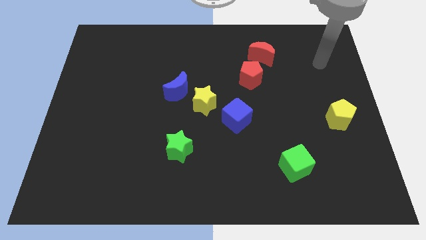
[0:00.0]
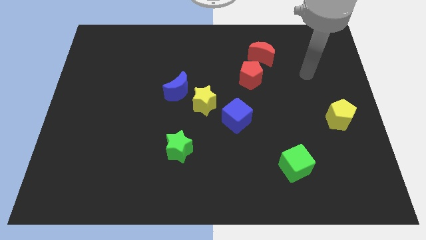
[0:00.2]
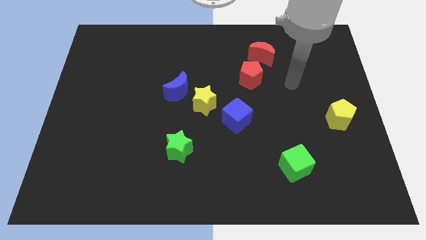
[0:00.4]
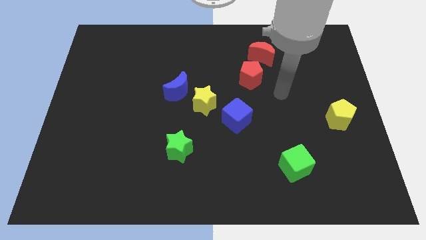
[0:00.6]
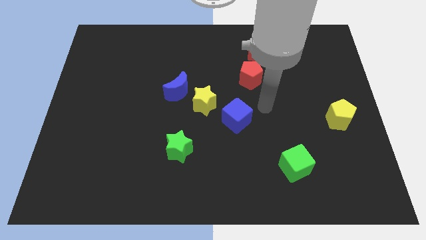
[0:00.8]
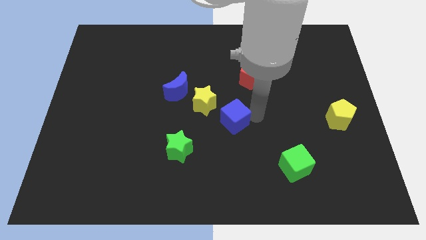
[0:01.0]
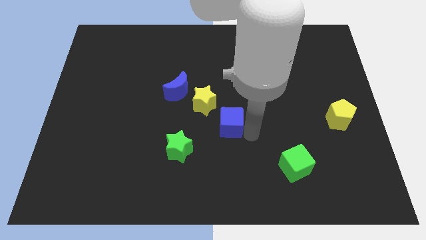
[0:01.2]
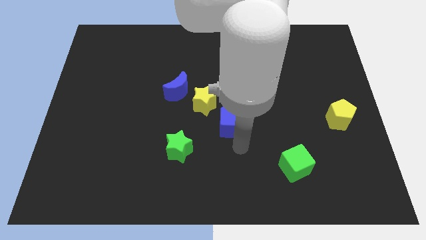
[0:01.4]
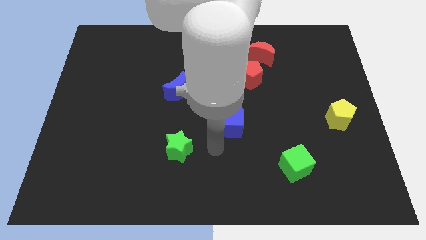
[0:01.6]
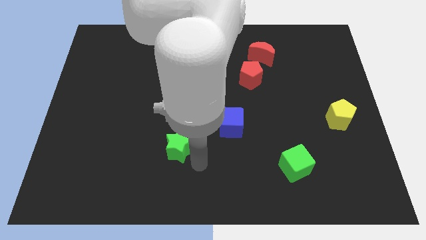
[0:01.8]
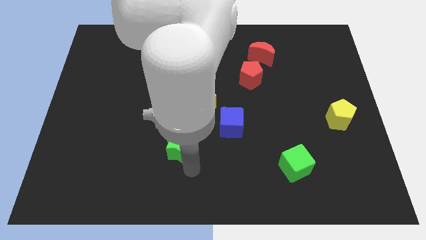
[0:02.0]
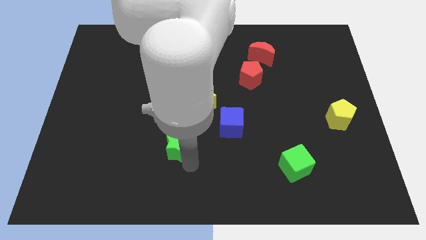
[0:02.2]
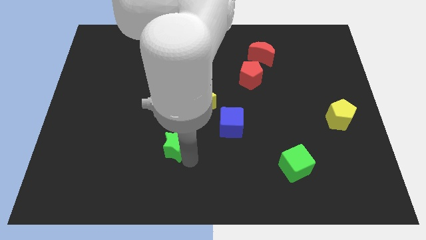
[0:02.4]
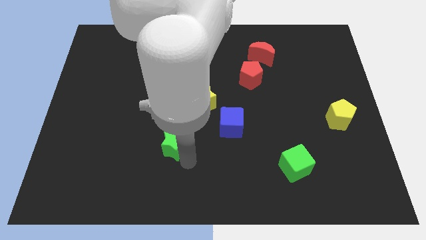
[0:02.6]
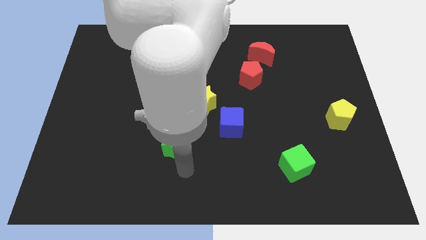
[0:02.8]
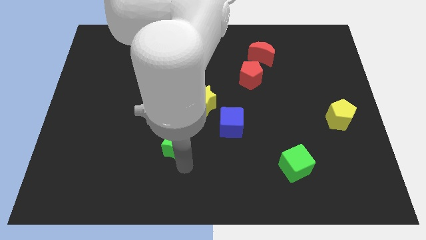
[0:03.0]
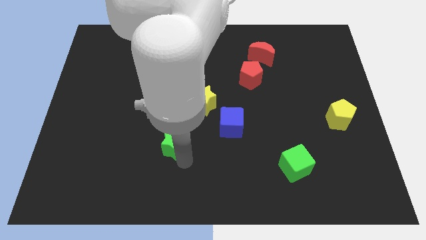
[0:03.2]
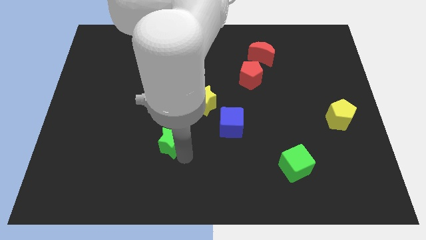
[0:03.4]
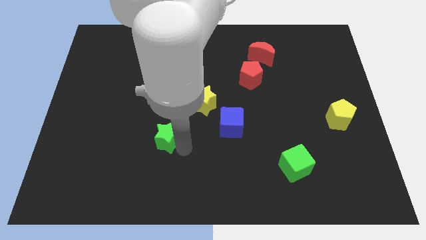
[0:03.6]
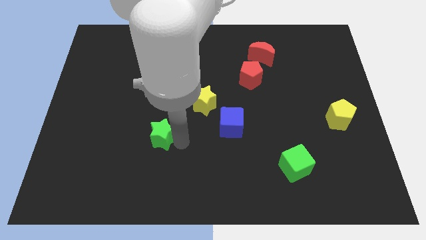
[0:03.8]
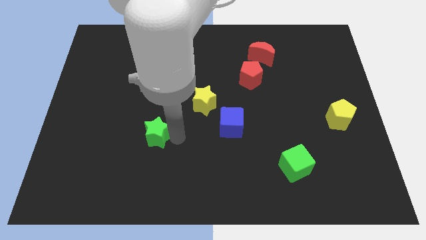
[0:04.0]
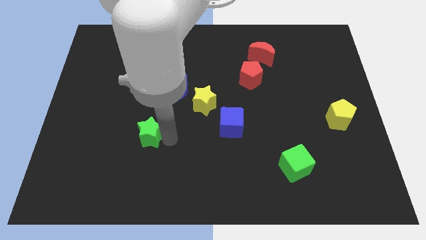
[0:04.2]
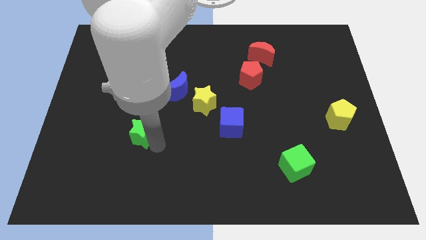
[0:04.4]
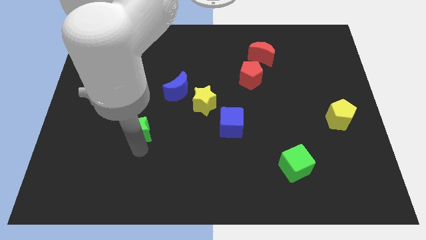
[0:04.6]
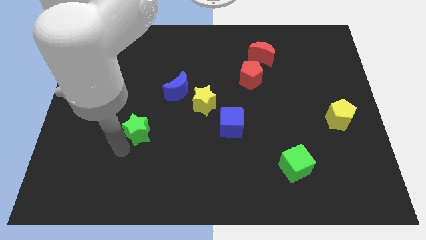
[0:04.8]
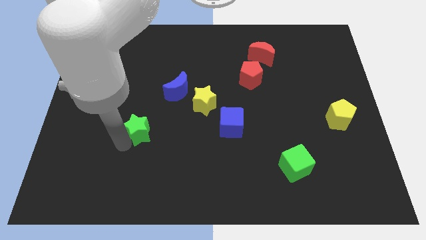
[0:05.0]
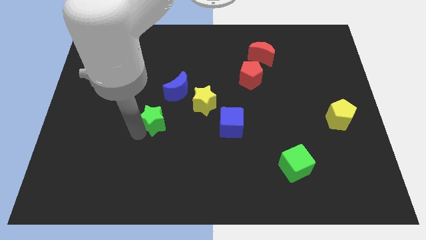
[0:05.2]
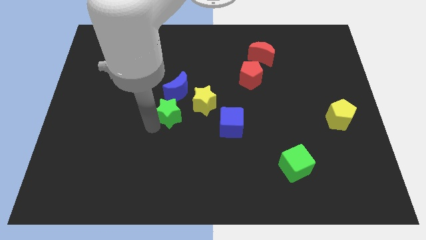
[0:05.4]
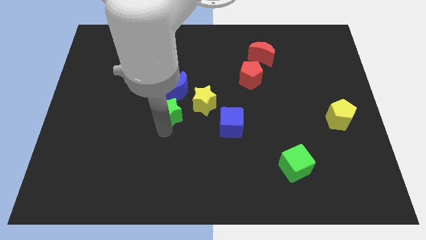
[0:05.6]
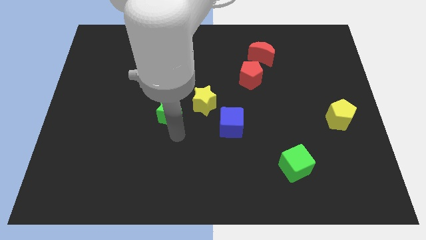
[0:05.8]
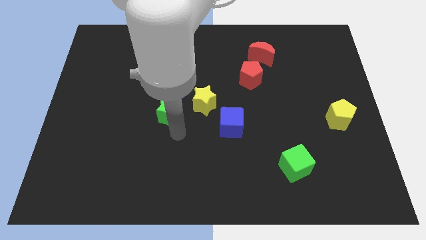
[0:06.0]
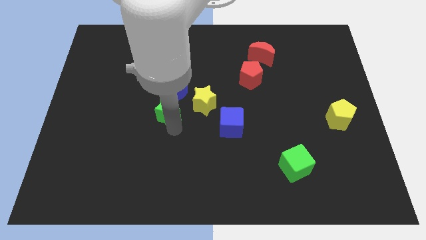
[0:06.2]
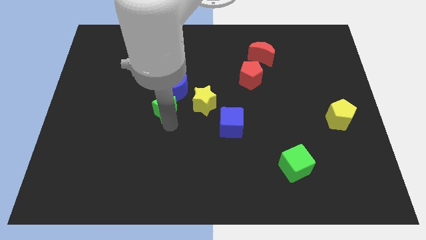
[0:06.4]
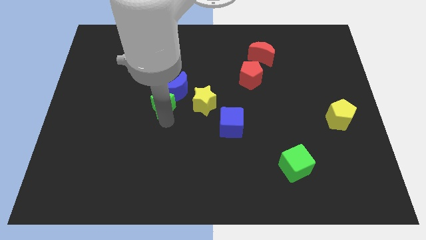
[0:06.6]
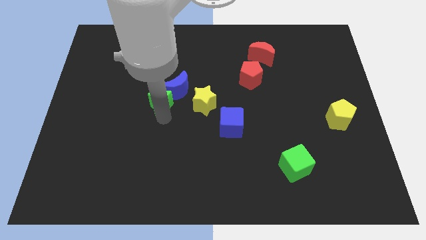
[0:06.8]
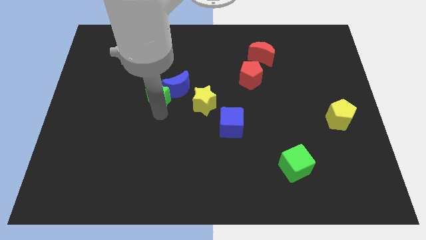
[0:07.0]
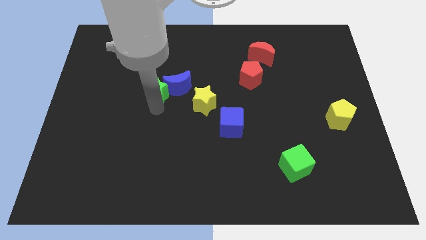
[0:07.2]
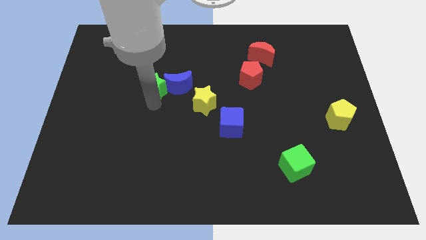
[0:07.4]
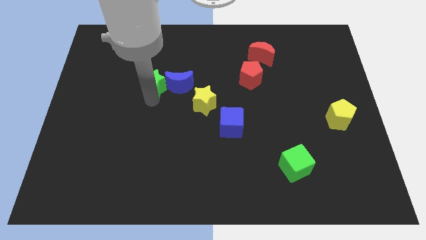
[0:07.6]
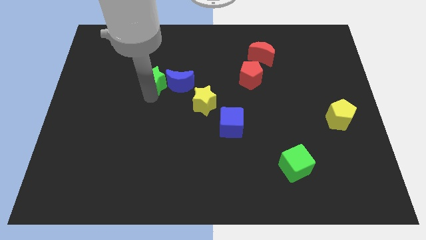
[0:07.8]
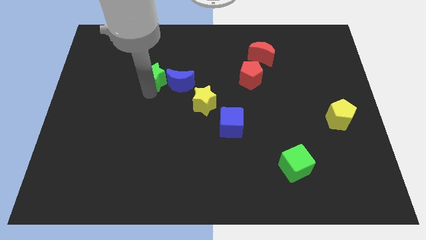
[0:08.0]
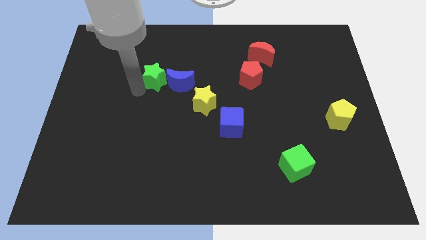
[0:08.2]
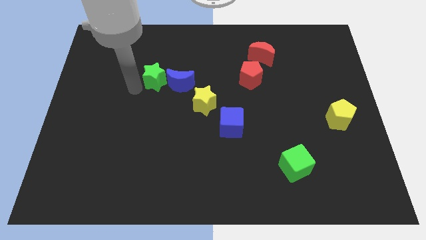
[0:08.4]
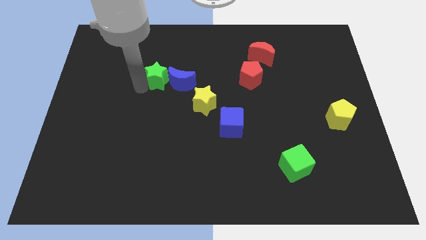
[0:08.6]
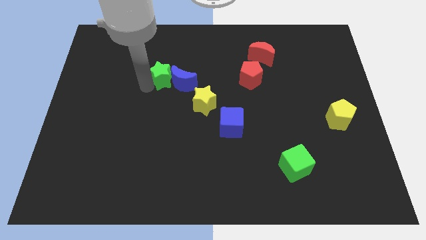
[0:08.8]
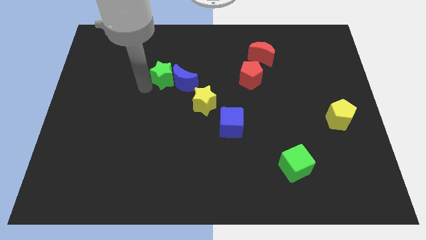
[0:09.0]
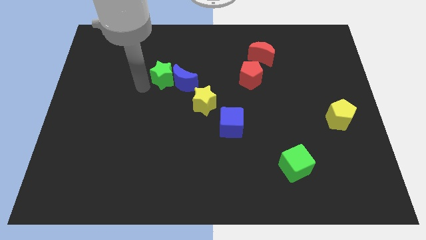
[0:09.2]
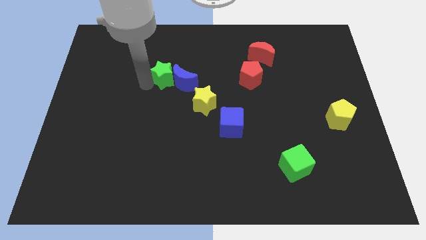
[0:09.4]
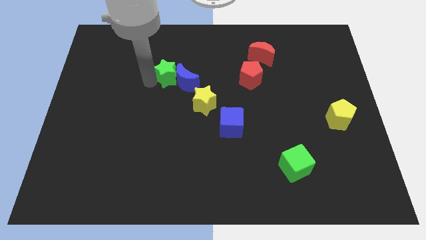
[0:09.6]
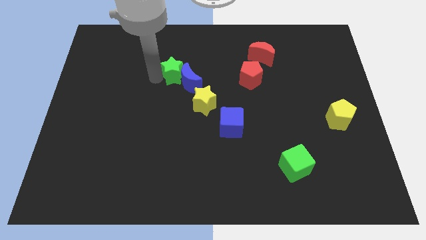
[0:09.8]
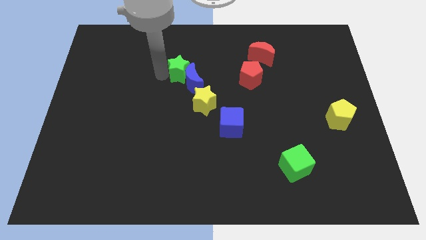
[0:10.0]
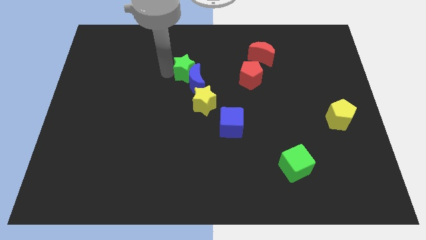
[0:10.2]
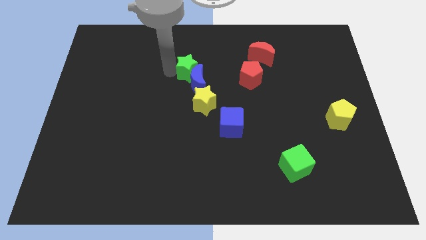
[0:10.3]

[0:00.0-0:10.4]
slide the green star to the top side of the yellow star

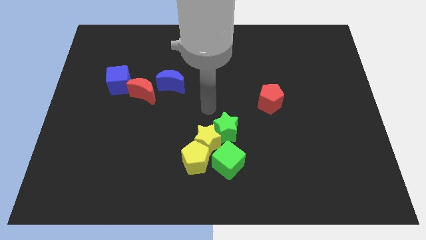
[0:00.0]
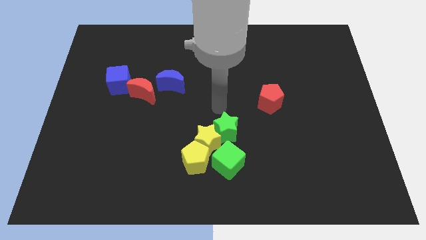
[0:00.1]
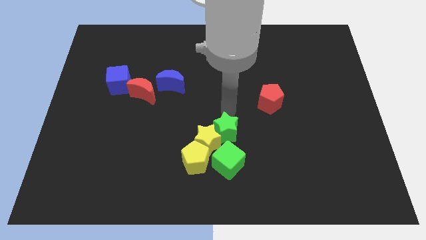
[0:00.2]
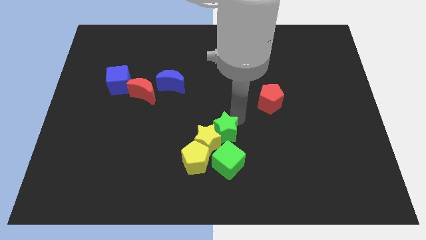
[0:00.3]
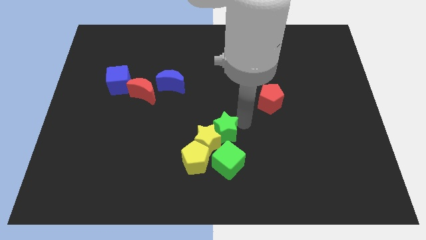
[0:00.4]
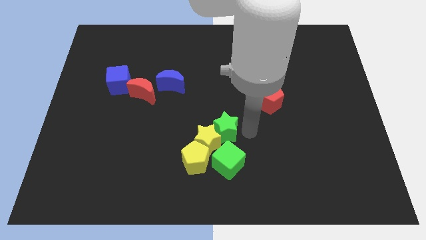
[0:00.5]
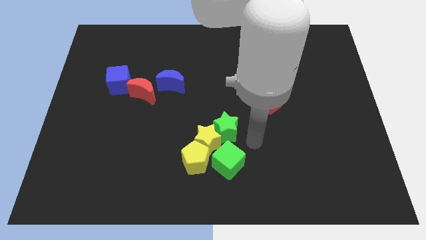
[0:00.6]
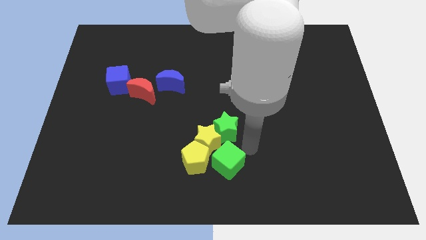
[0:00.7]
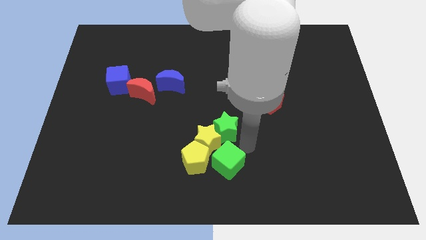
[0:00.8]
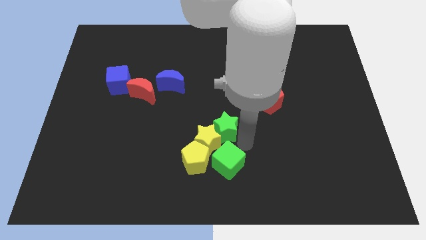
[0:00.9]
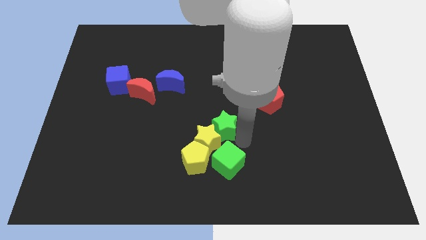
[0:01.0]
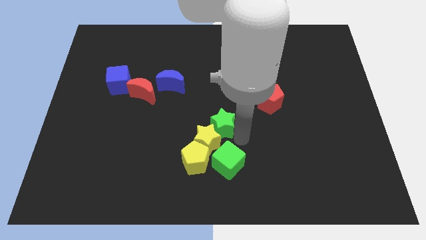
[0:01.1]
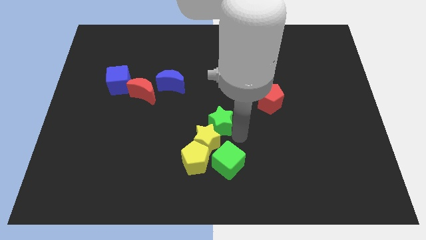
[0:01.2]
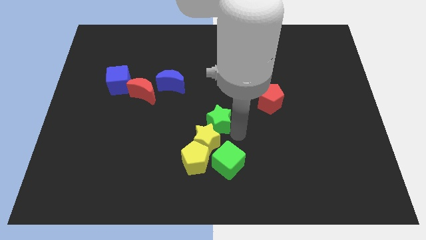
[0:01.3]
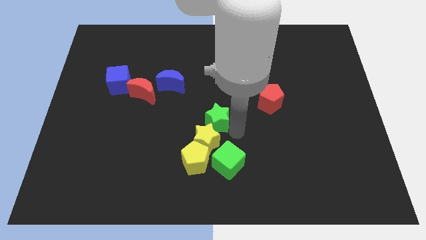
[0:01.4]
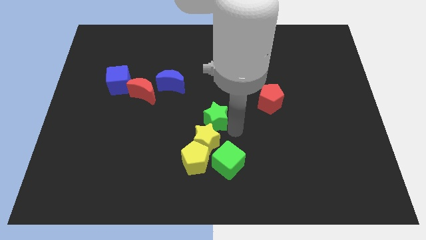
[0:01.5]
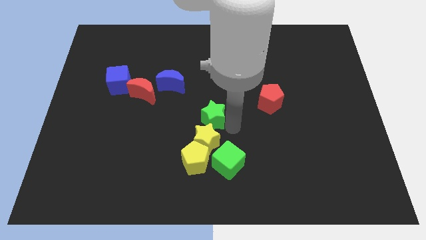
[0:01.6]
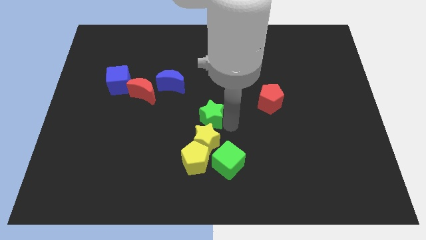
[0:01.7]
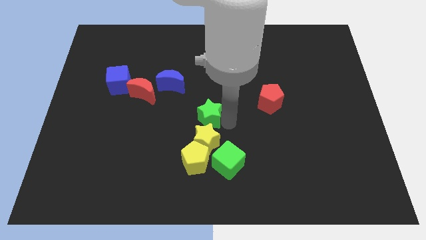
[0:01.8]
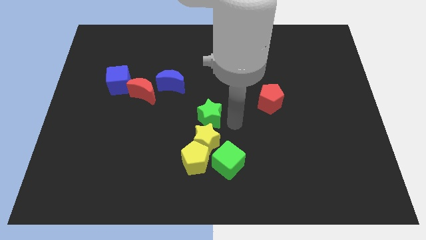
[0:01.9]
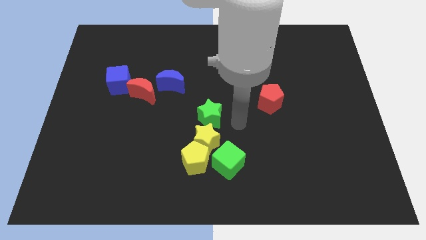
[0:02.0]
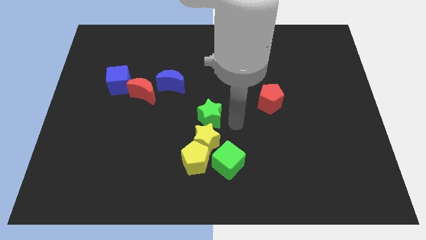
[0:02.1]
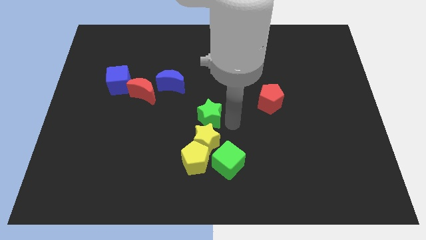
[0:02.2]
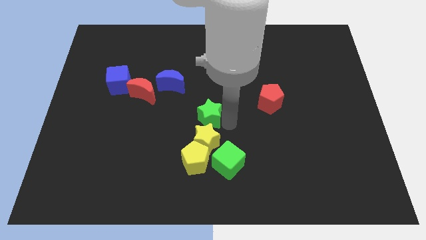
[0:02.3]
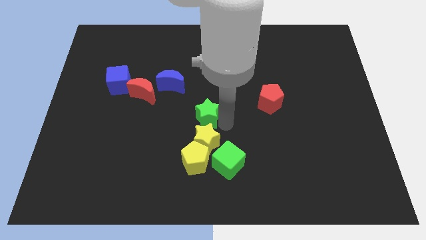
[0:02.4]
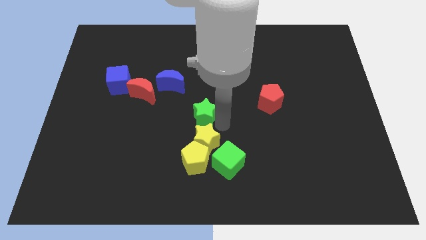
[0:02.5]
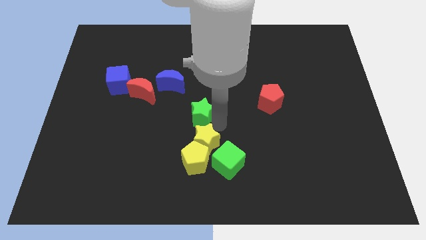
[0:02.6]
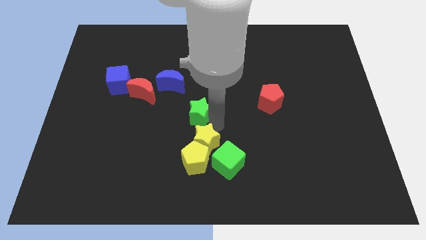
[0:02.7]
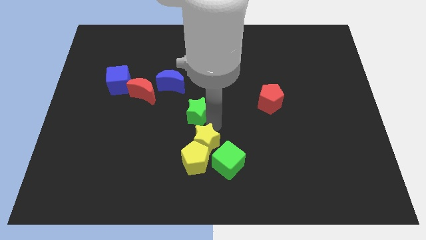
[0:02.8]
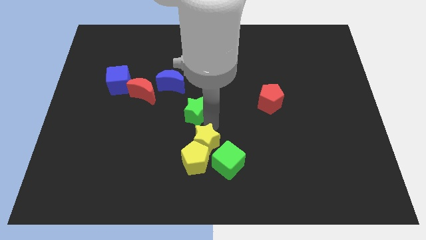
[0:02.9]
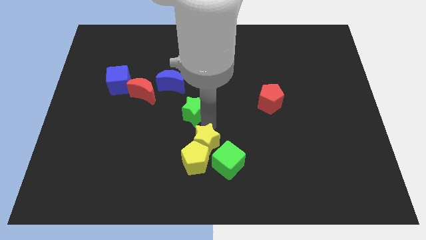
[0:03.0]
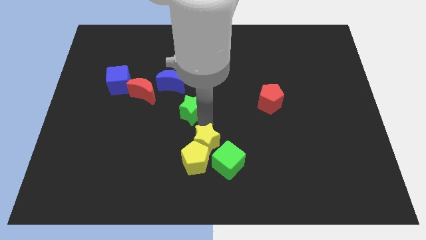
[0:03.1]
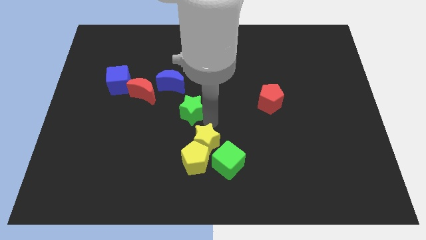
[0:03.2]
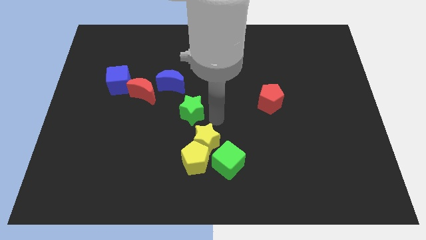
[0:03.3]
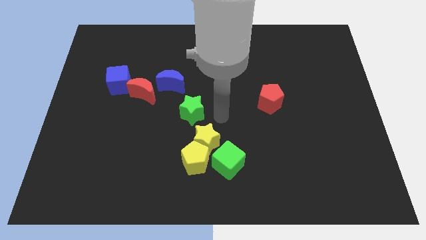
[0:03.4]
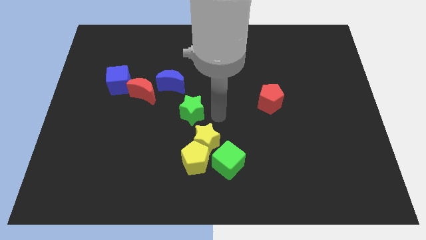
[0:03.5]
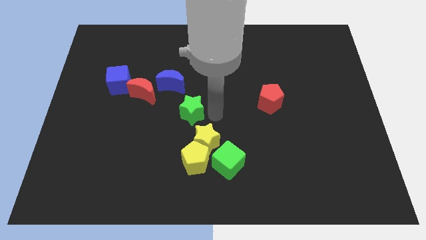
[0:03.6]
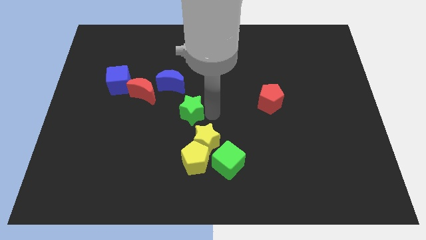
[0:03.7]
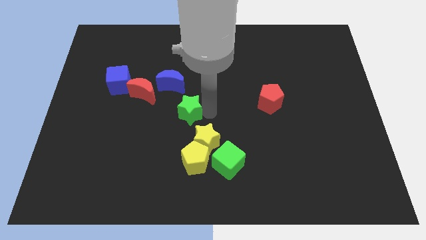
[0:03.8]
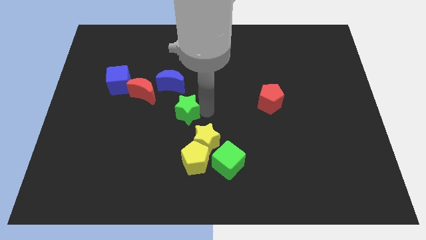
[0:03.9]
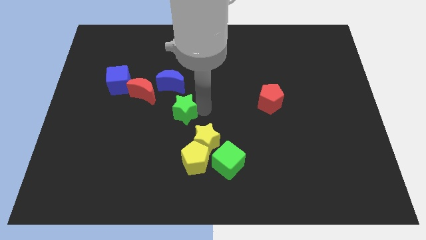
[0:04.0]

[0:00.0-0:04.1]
slide the green star diagonally down and to the right of the red moon
